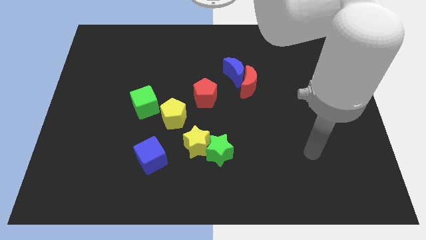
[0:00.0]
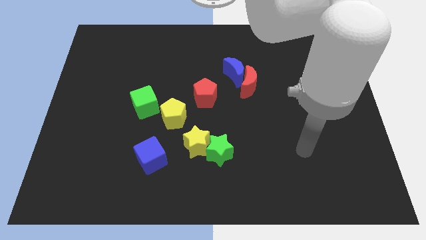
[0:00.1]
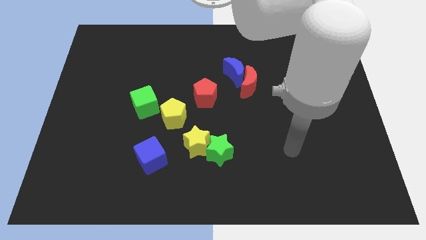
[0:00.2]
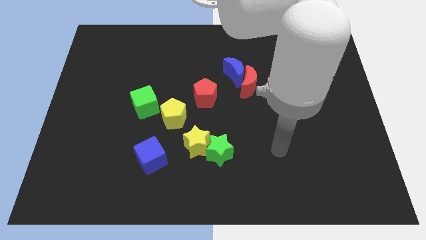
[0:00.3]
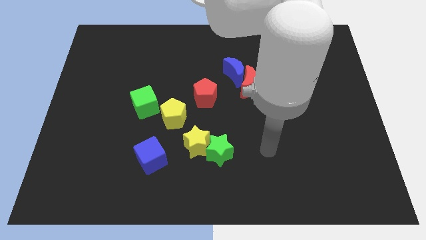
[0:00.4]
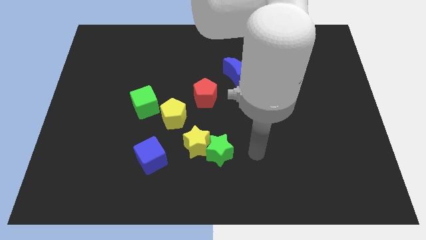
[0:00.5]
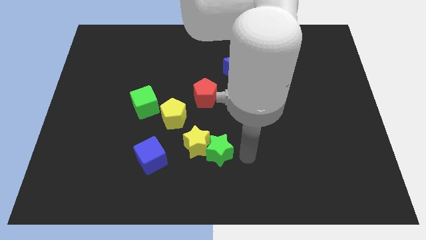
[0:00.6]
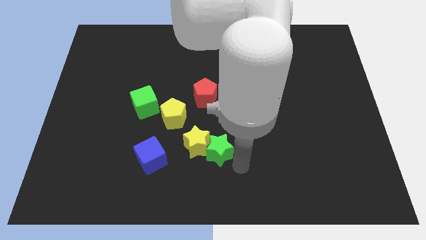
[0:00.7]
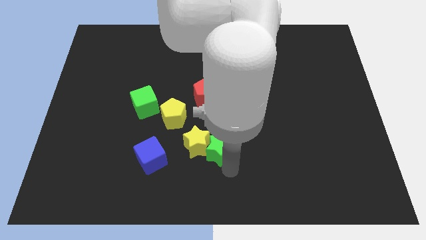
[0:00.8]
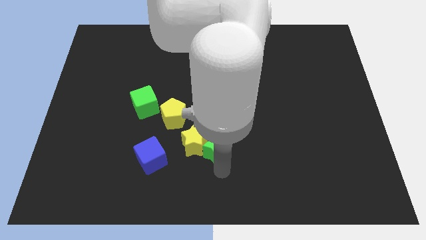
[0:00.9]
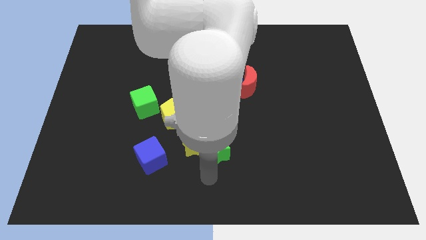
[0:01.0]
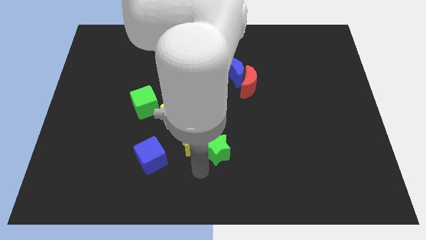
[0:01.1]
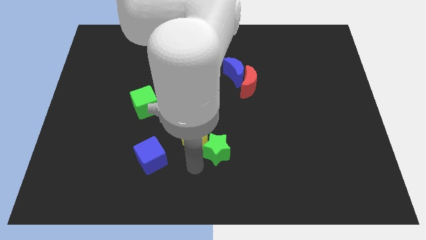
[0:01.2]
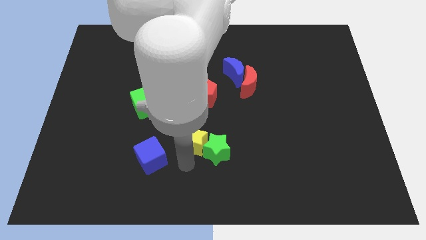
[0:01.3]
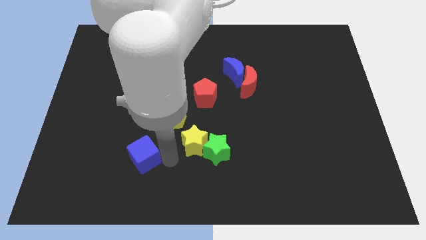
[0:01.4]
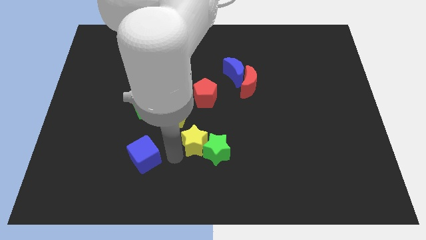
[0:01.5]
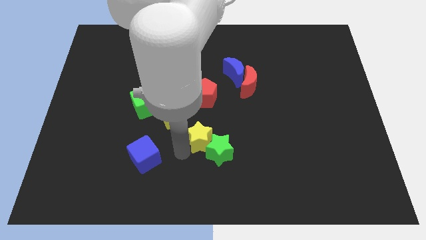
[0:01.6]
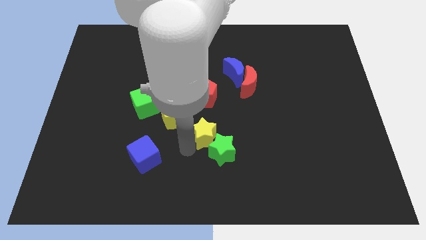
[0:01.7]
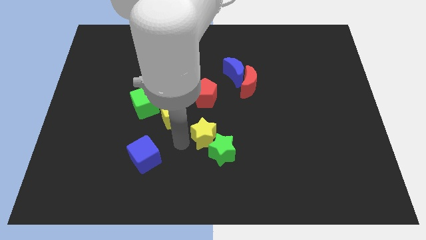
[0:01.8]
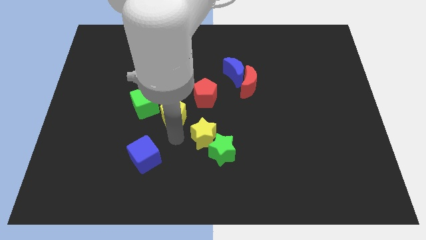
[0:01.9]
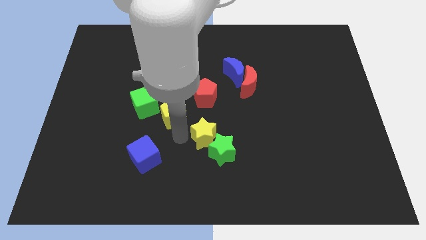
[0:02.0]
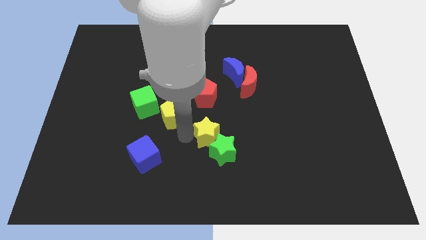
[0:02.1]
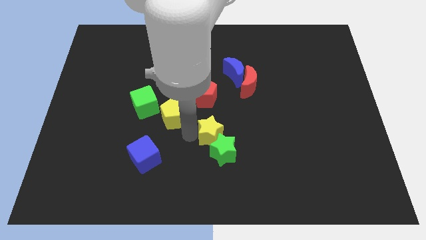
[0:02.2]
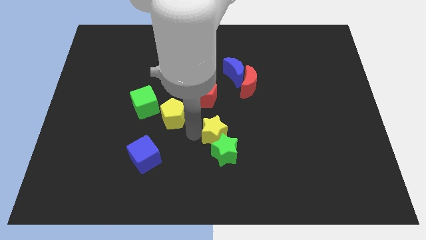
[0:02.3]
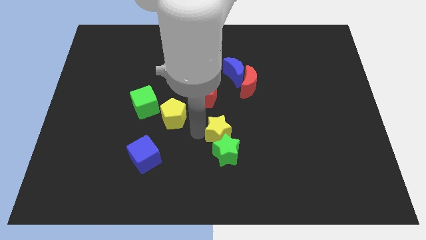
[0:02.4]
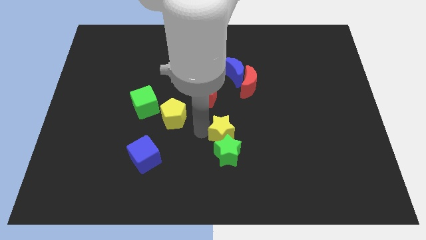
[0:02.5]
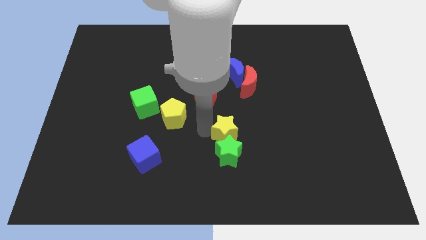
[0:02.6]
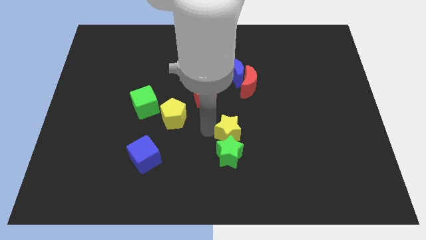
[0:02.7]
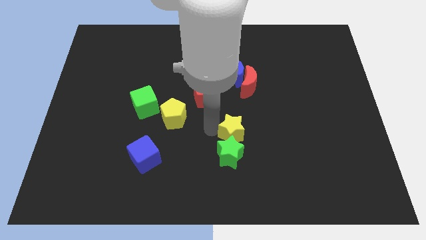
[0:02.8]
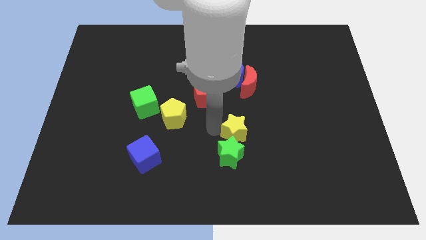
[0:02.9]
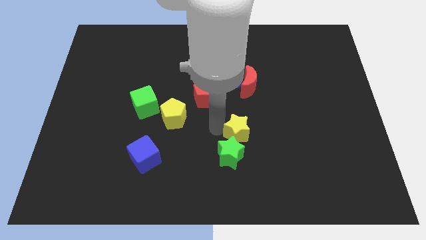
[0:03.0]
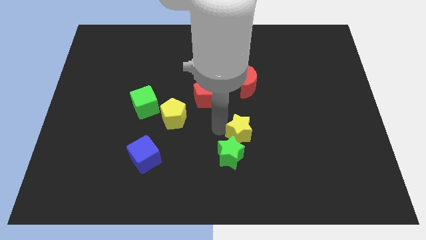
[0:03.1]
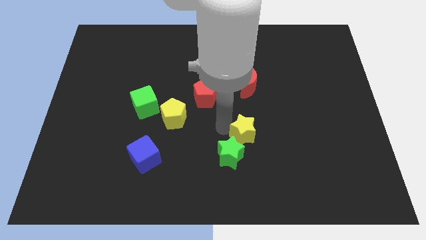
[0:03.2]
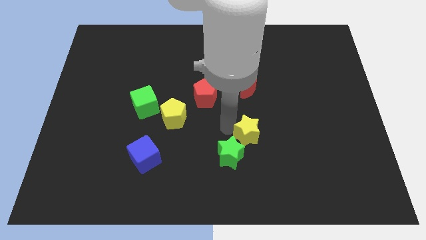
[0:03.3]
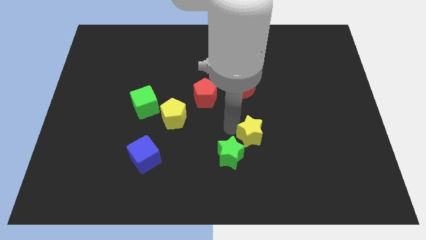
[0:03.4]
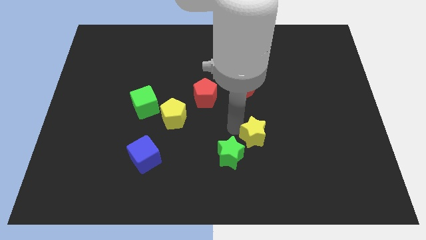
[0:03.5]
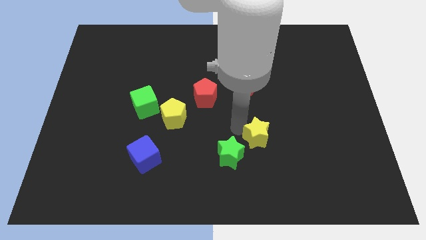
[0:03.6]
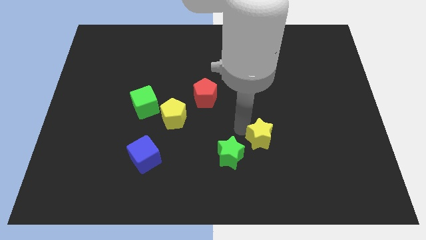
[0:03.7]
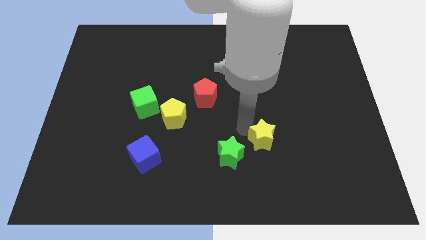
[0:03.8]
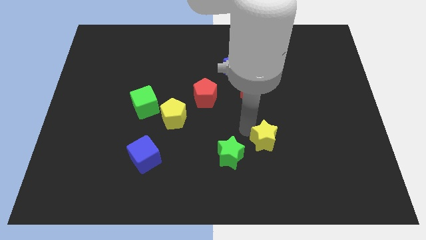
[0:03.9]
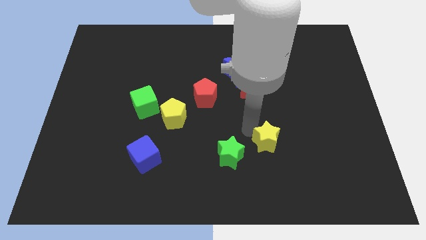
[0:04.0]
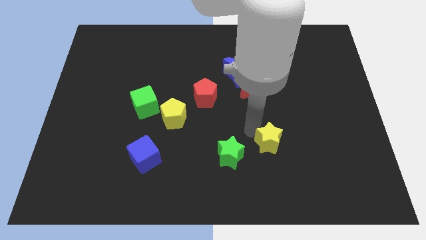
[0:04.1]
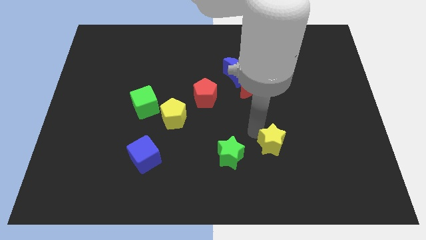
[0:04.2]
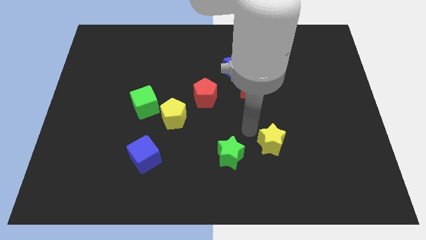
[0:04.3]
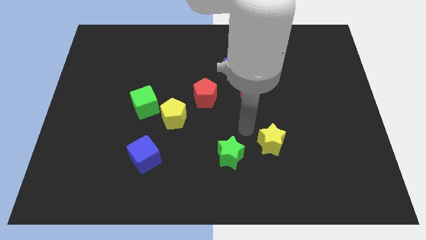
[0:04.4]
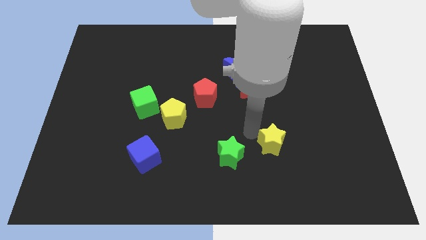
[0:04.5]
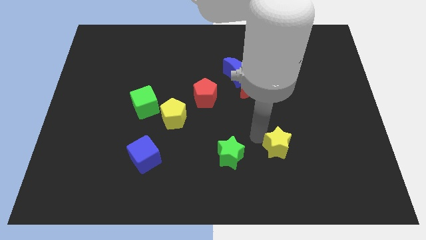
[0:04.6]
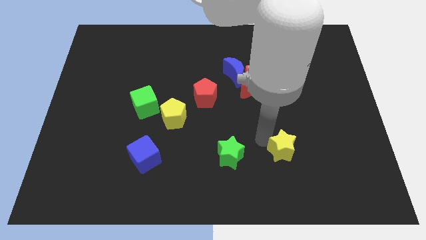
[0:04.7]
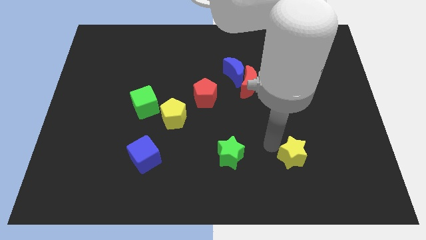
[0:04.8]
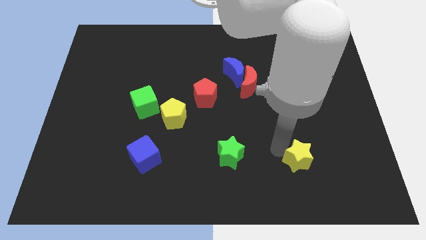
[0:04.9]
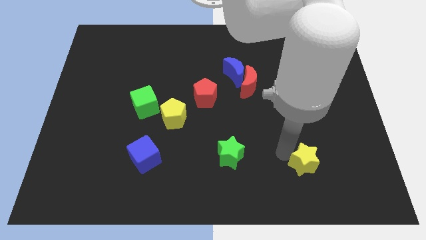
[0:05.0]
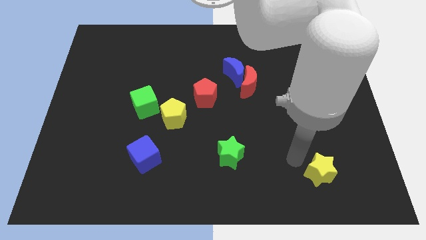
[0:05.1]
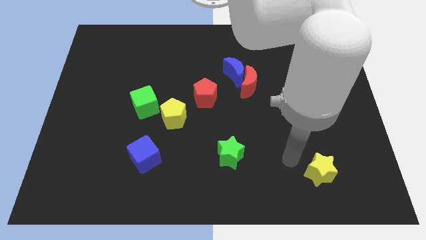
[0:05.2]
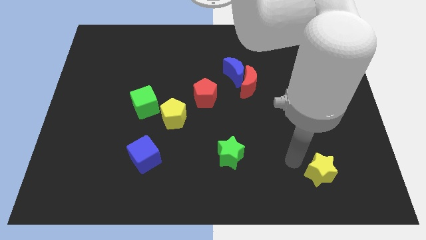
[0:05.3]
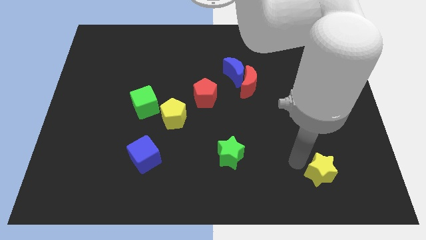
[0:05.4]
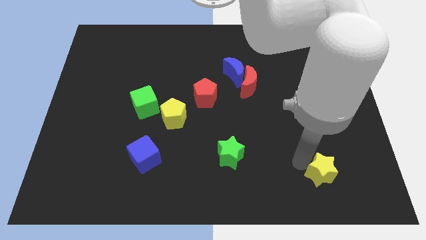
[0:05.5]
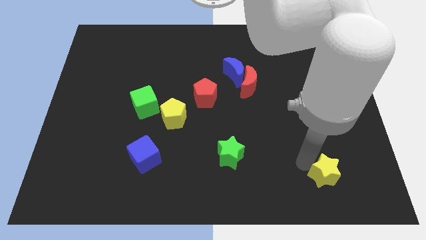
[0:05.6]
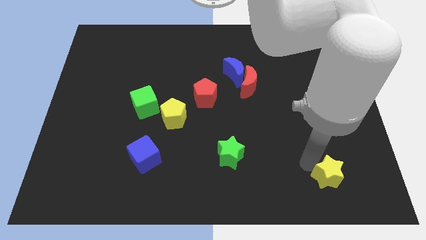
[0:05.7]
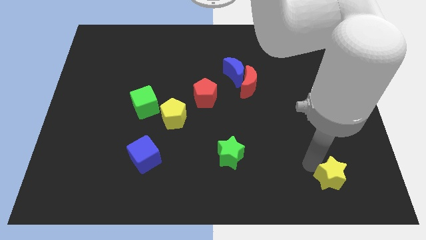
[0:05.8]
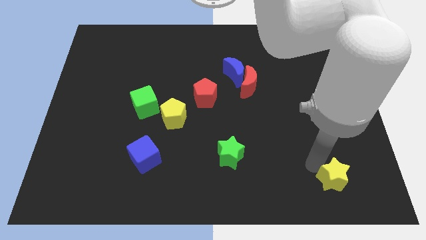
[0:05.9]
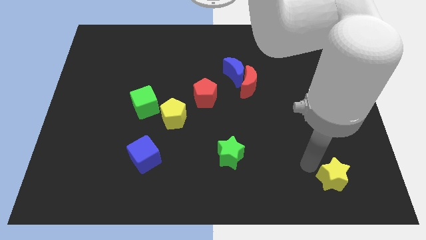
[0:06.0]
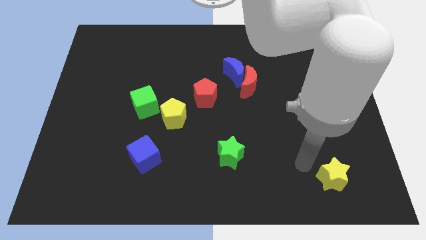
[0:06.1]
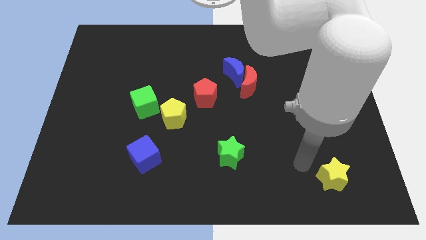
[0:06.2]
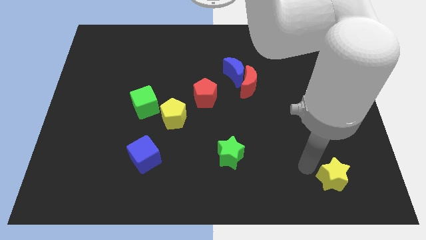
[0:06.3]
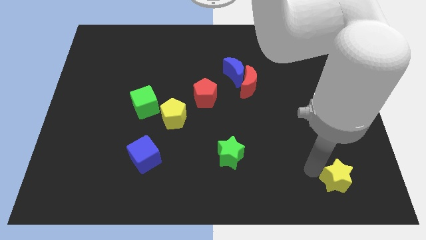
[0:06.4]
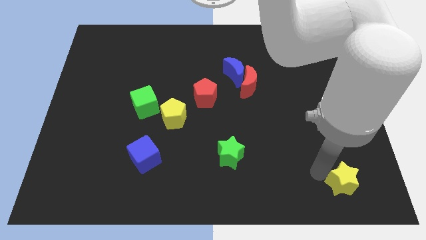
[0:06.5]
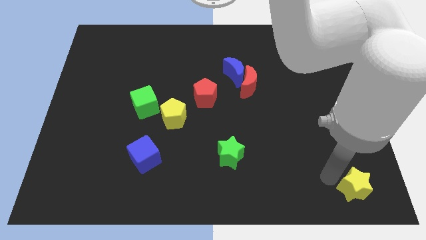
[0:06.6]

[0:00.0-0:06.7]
put the yellow star to the bottom right
